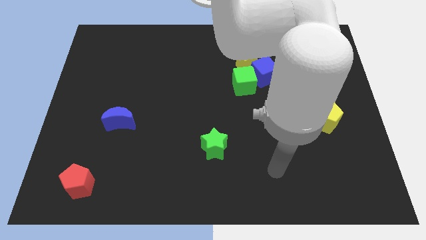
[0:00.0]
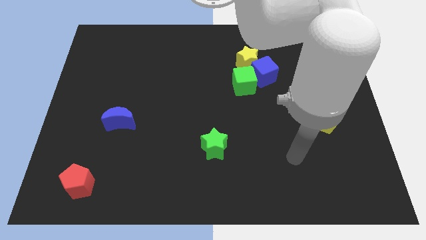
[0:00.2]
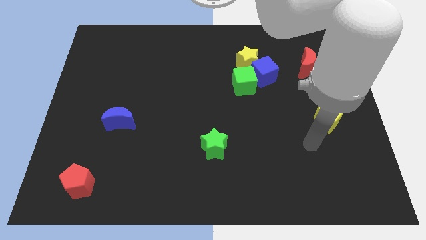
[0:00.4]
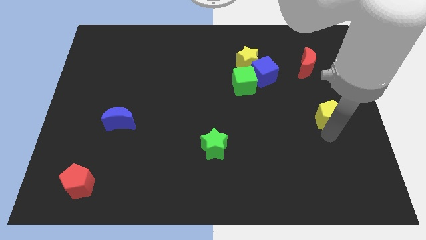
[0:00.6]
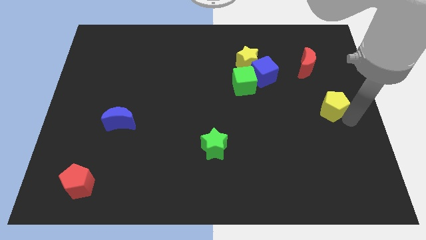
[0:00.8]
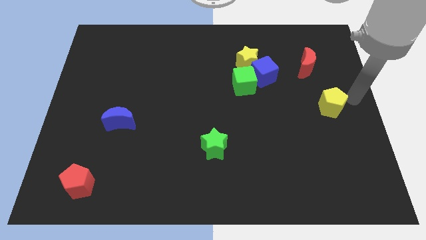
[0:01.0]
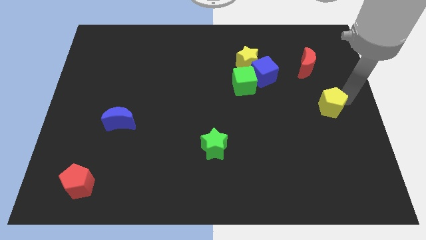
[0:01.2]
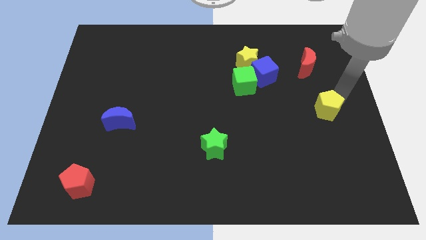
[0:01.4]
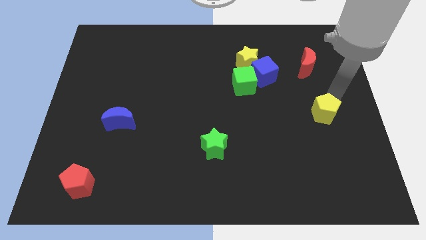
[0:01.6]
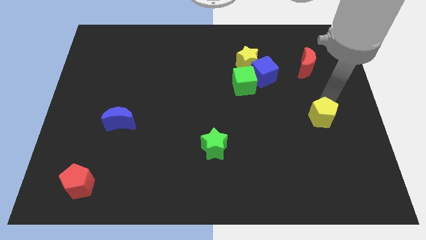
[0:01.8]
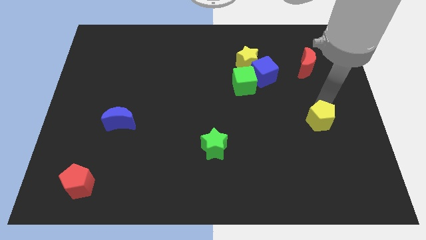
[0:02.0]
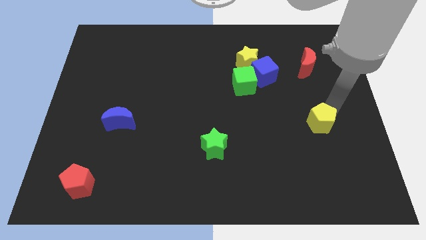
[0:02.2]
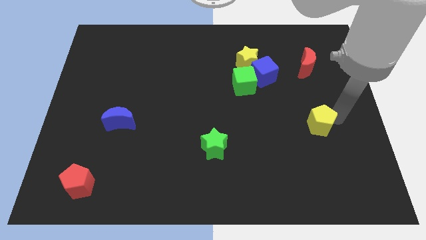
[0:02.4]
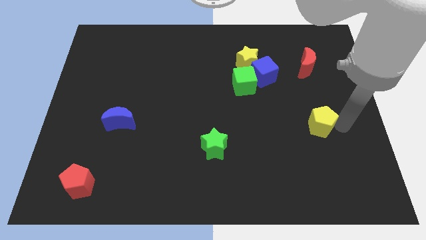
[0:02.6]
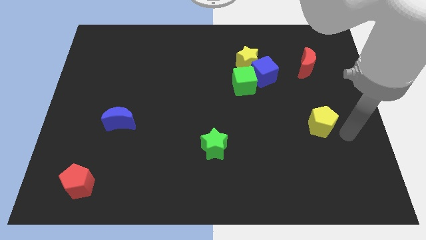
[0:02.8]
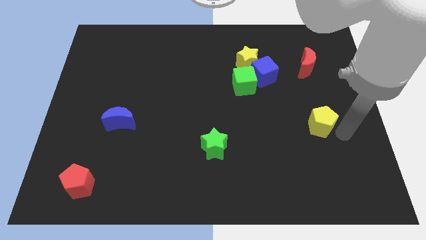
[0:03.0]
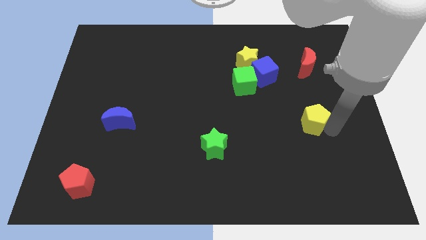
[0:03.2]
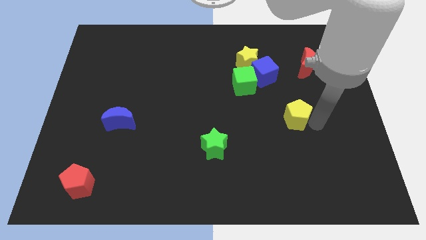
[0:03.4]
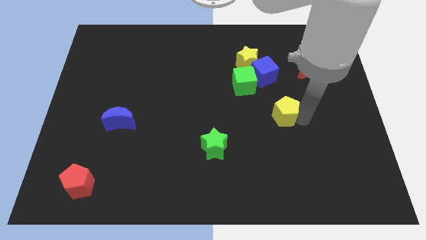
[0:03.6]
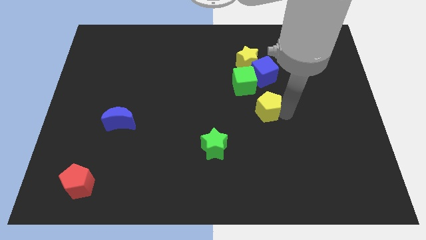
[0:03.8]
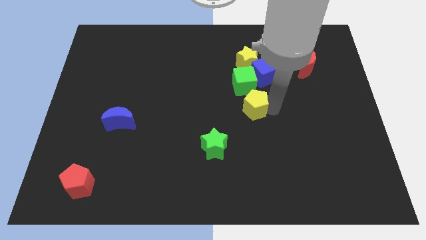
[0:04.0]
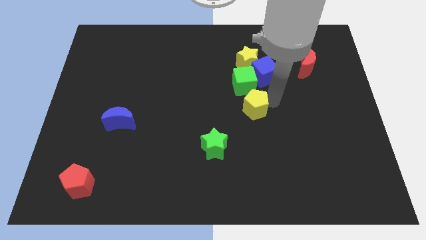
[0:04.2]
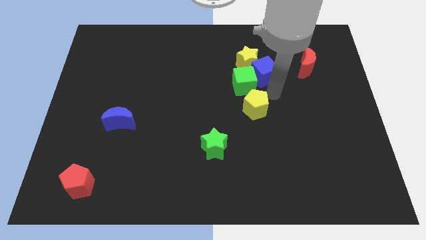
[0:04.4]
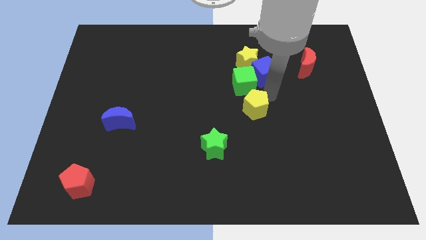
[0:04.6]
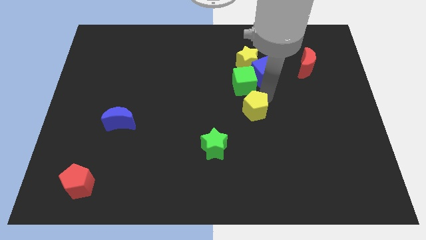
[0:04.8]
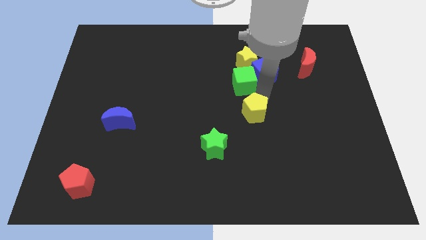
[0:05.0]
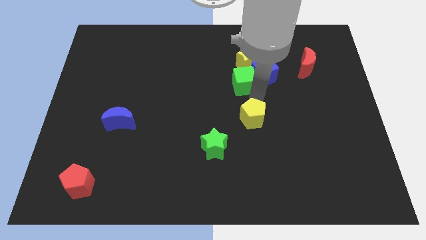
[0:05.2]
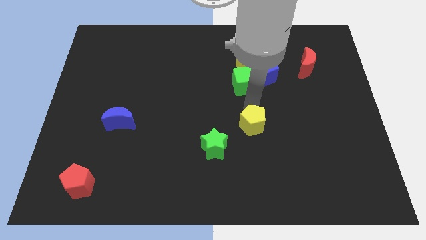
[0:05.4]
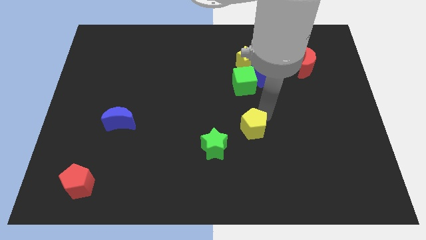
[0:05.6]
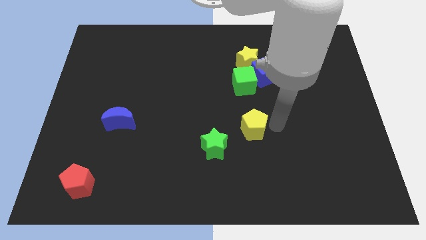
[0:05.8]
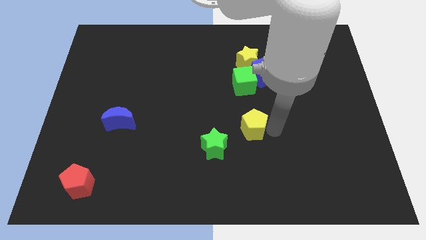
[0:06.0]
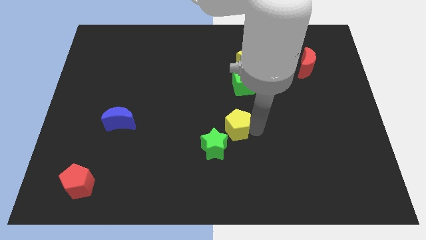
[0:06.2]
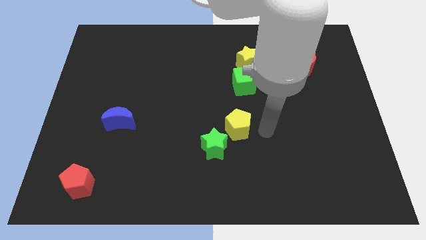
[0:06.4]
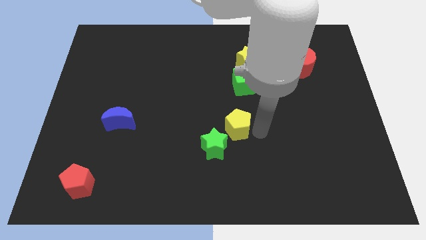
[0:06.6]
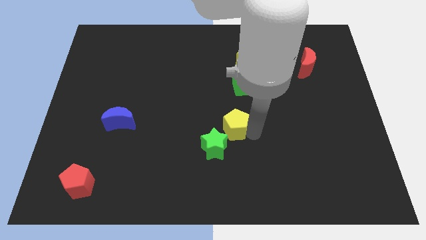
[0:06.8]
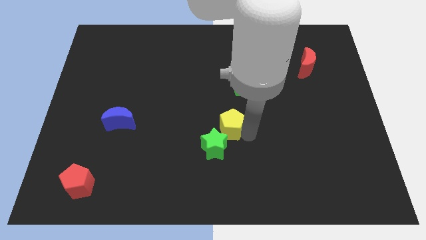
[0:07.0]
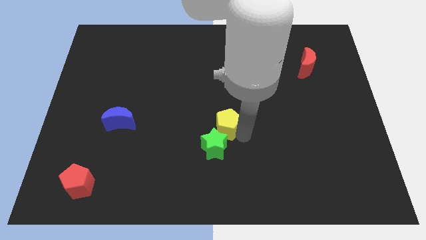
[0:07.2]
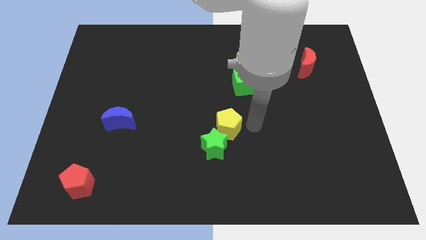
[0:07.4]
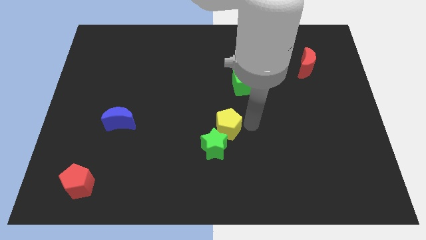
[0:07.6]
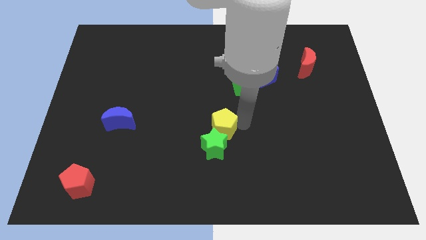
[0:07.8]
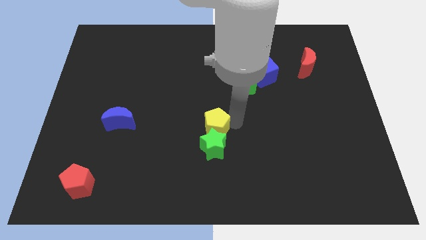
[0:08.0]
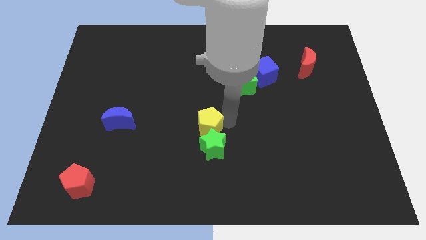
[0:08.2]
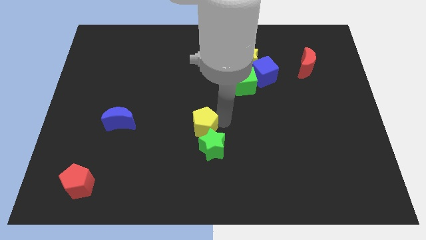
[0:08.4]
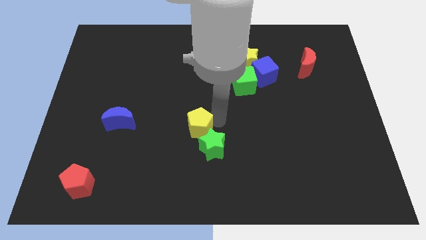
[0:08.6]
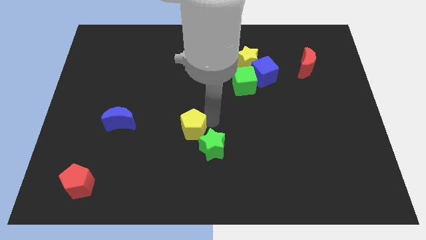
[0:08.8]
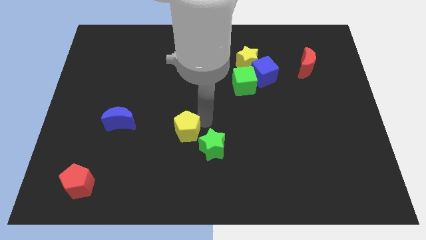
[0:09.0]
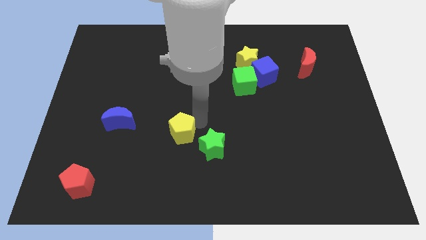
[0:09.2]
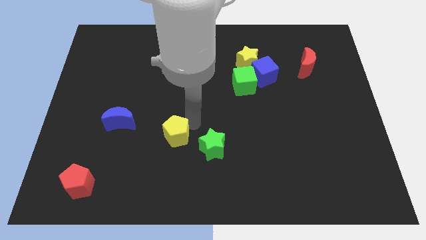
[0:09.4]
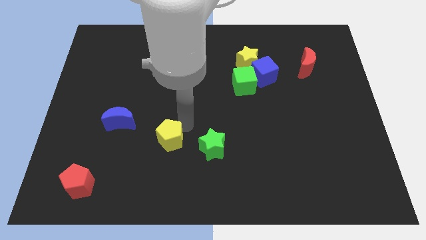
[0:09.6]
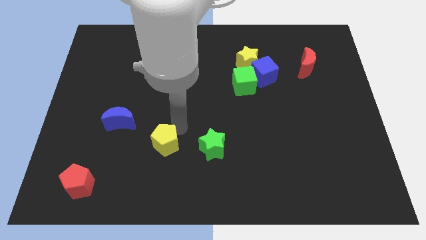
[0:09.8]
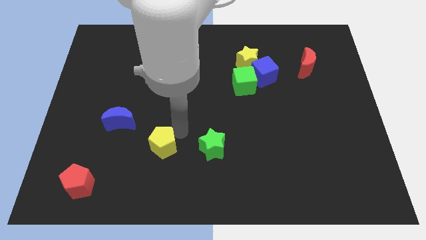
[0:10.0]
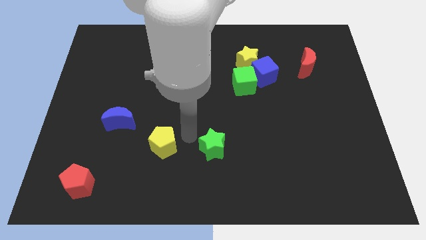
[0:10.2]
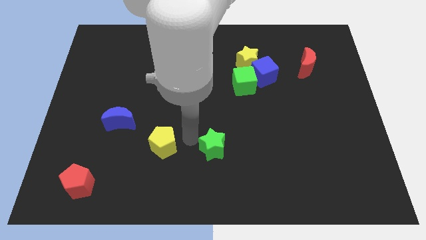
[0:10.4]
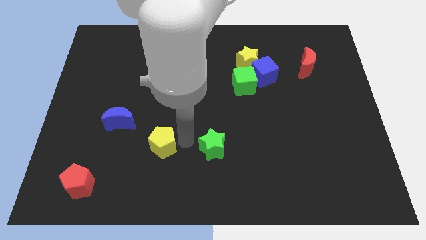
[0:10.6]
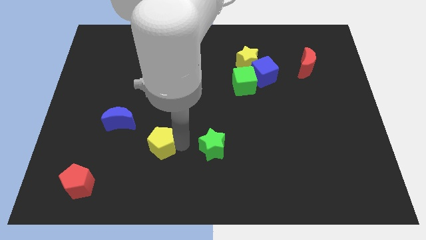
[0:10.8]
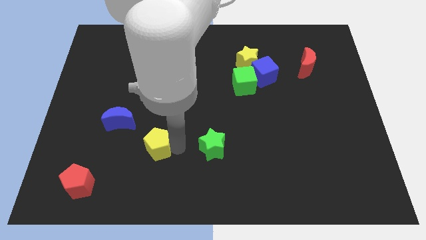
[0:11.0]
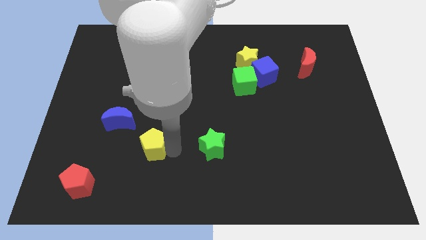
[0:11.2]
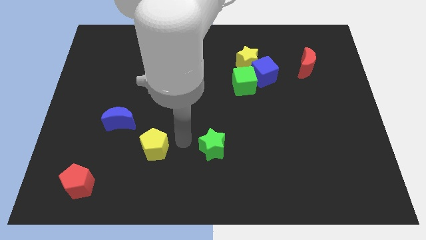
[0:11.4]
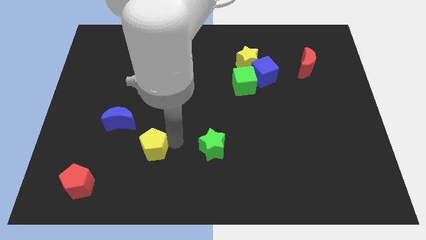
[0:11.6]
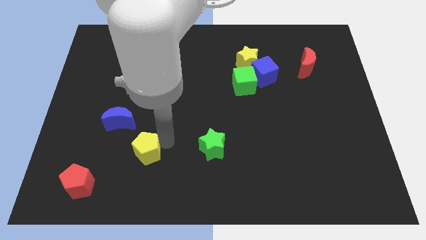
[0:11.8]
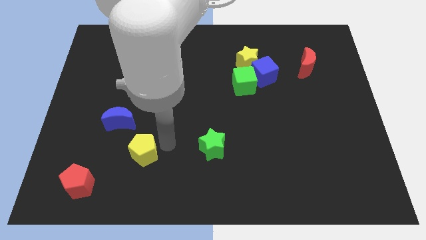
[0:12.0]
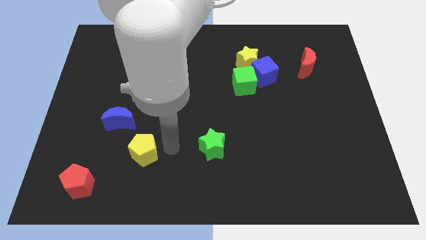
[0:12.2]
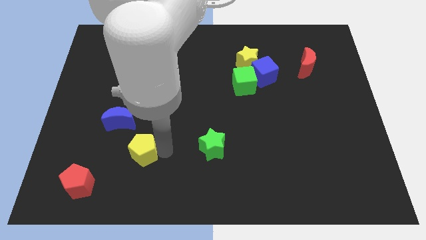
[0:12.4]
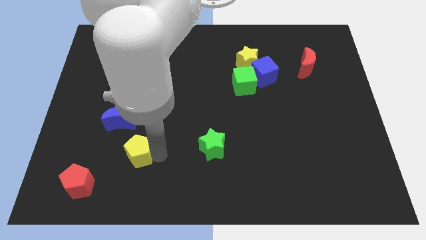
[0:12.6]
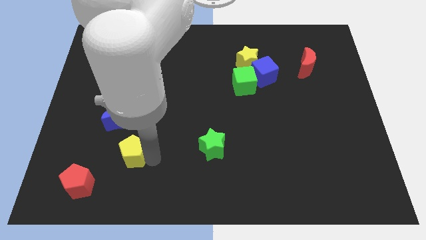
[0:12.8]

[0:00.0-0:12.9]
slide the yellow pentagon to the top right side of the red pentagon
